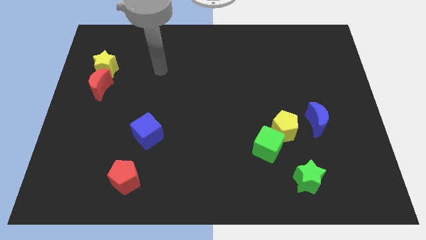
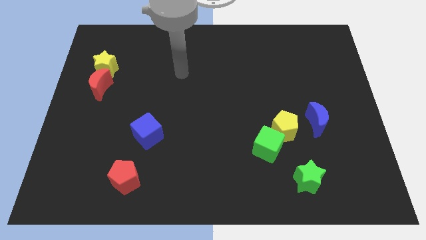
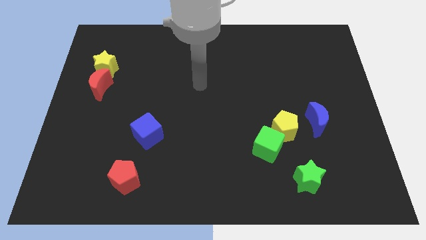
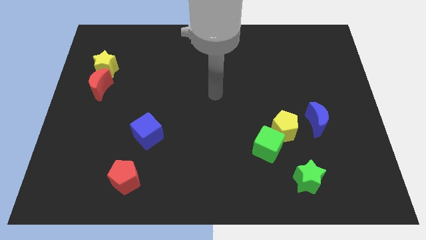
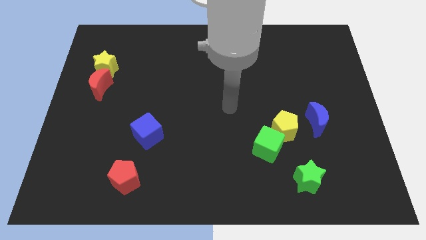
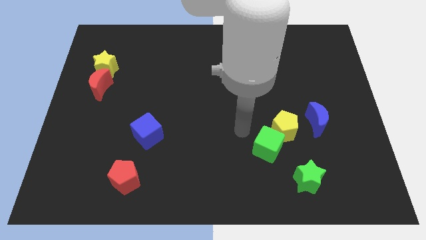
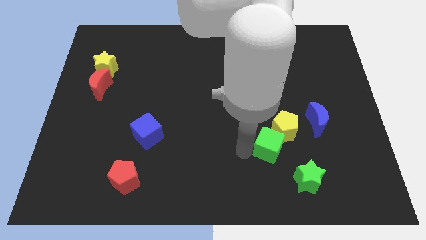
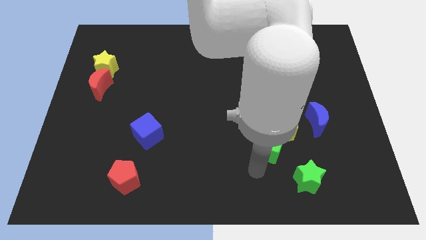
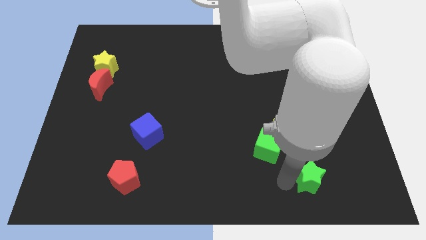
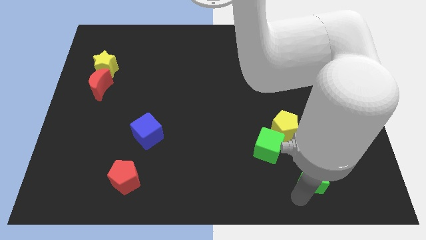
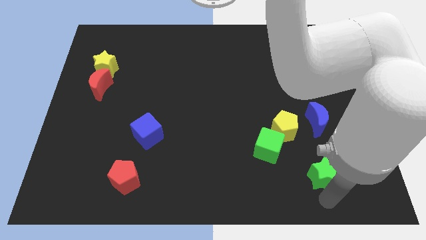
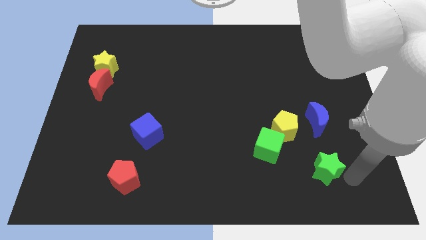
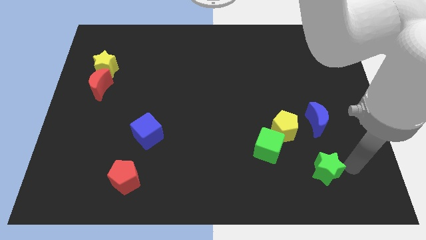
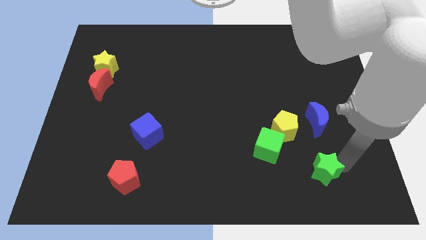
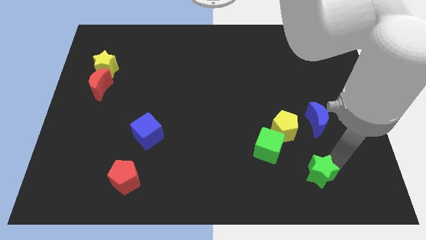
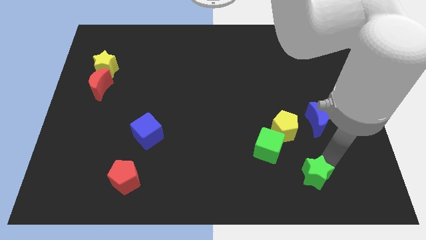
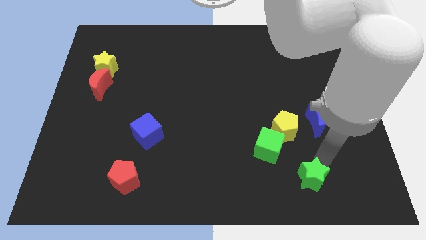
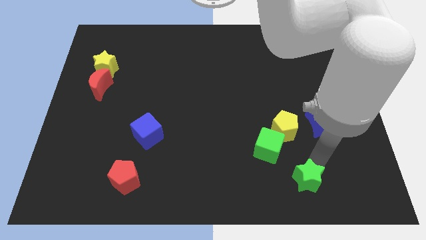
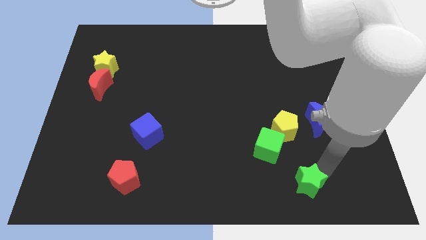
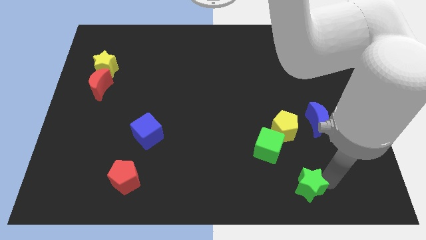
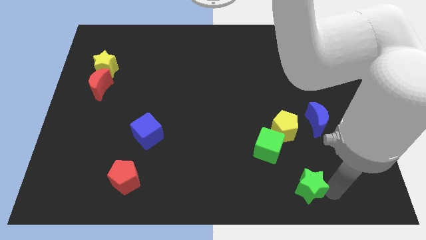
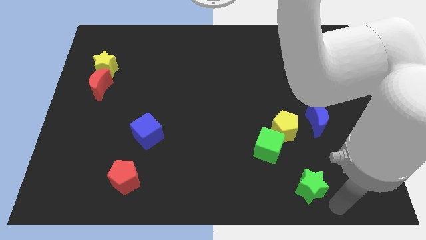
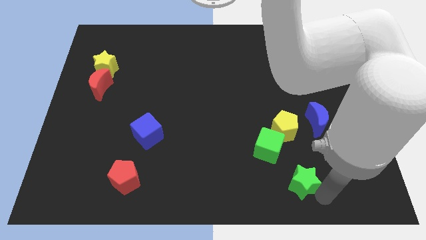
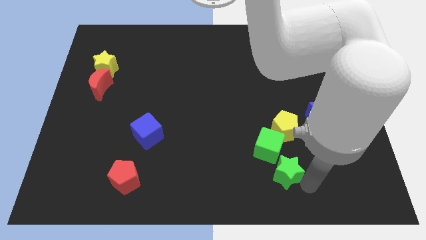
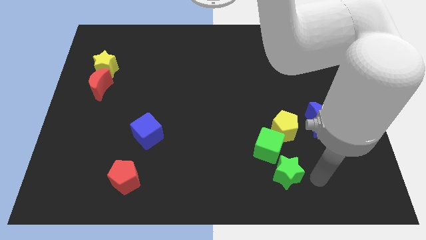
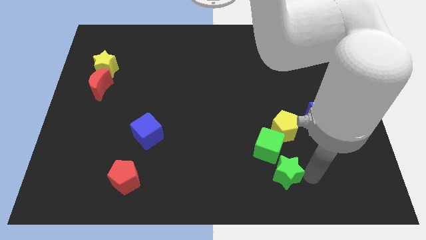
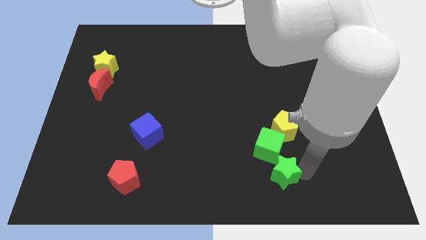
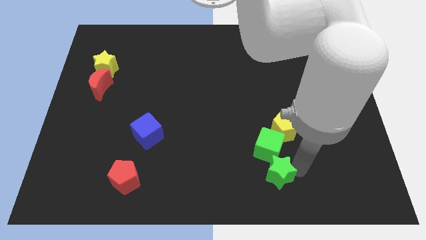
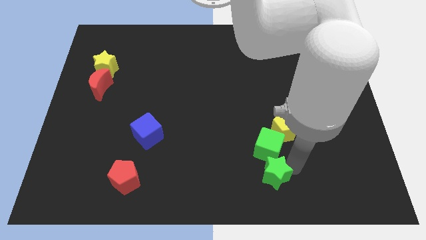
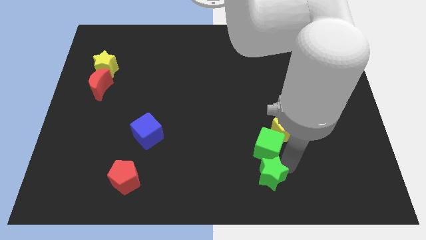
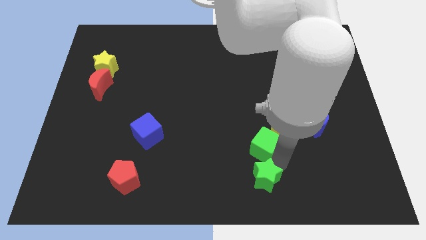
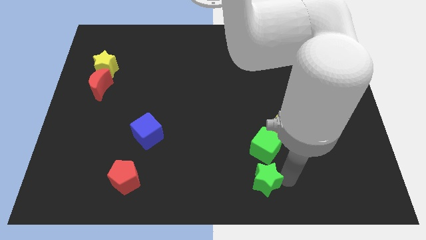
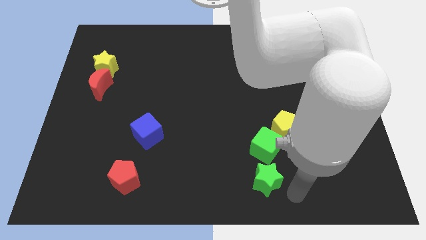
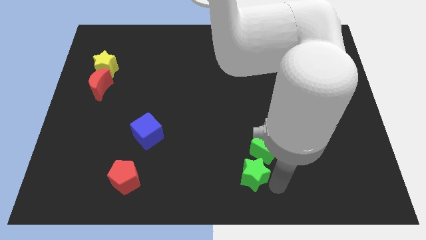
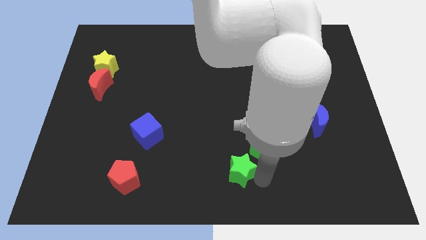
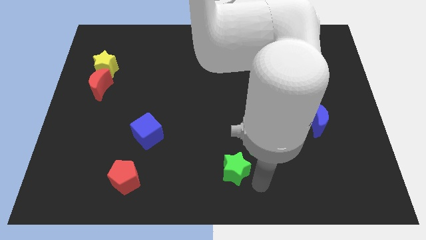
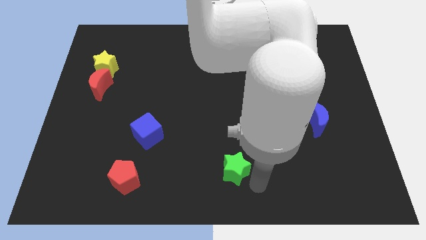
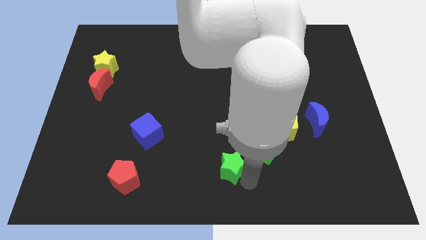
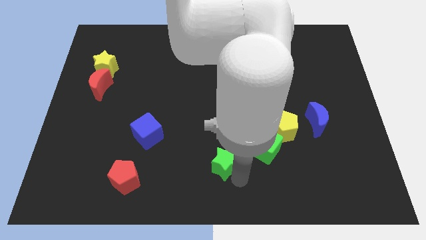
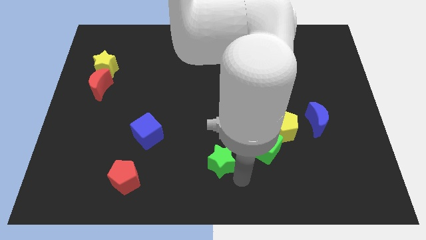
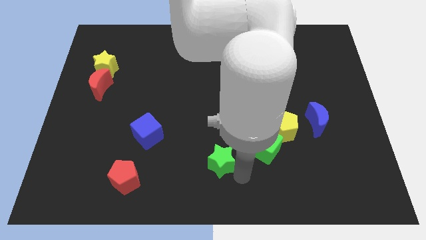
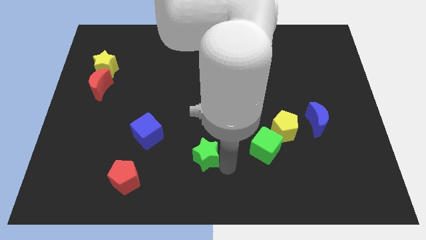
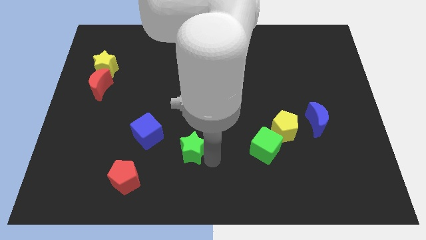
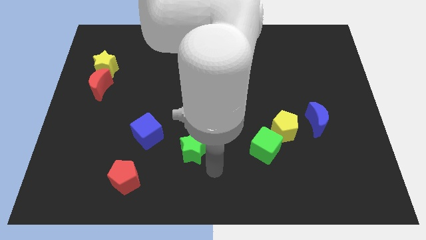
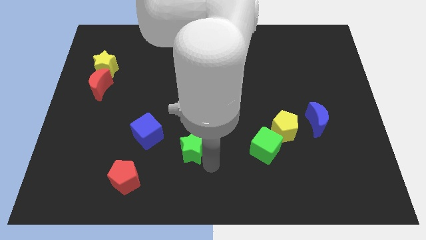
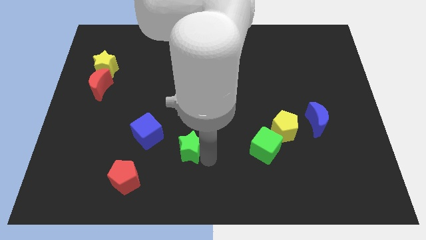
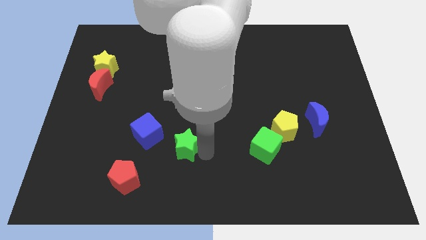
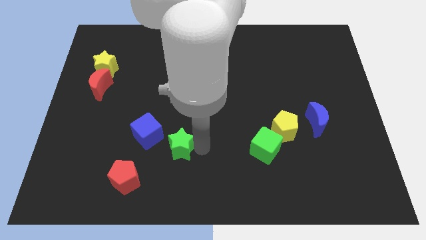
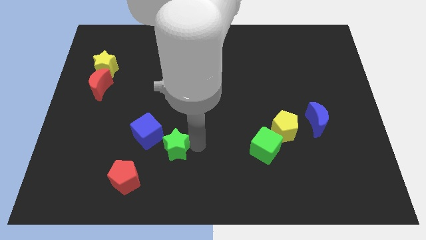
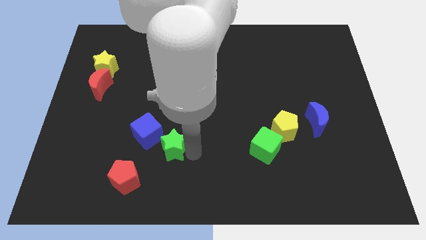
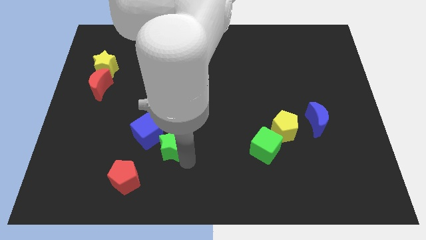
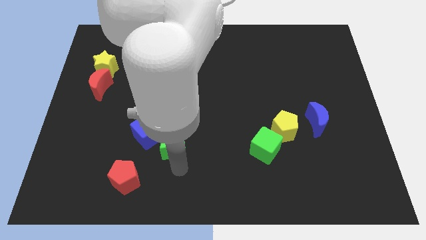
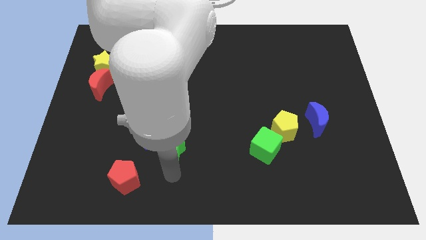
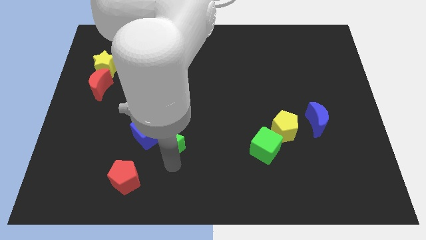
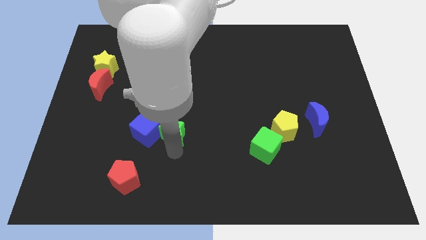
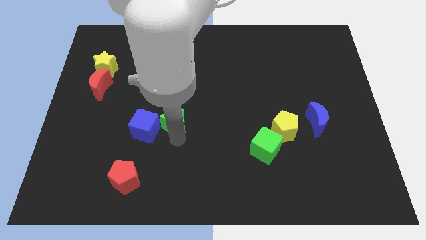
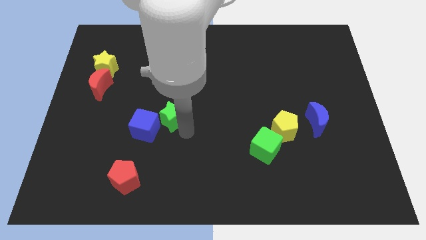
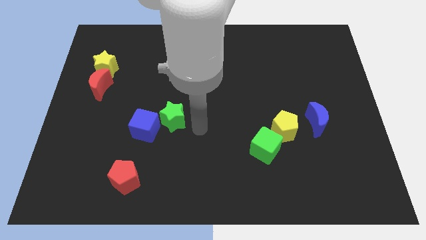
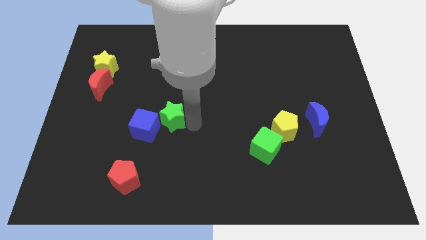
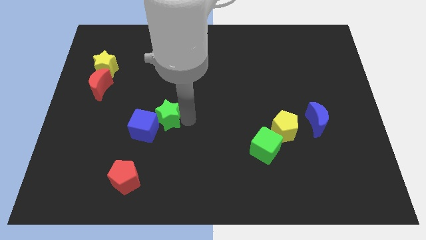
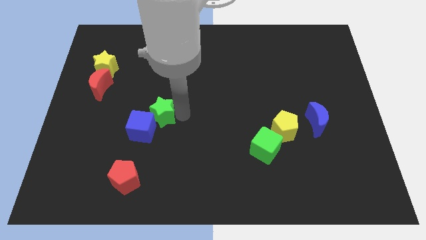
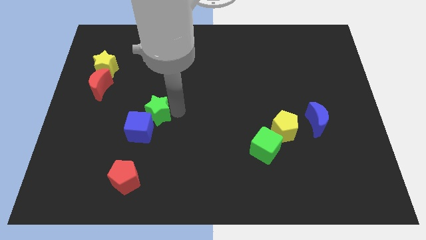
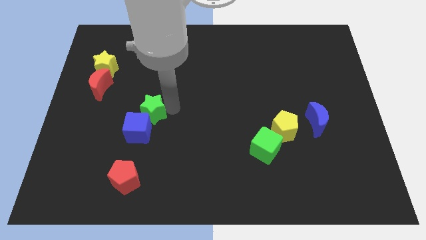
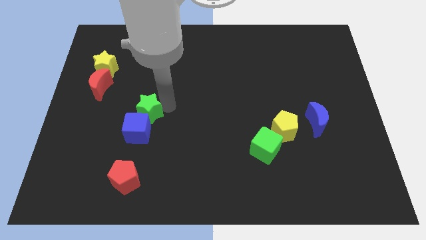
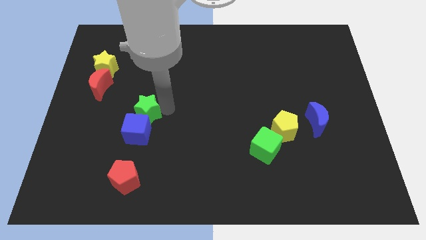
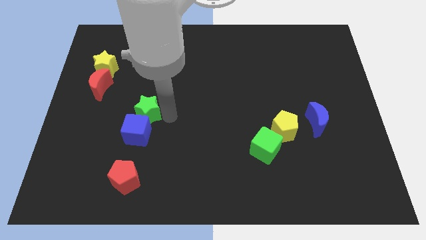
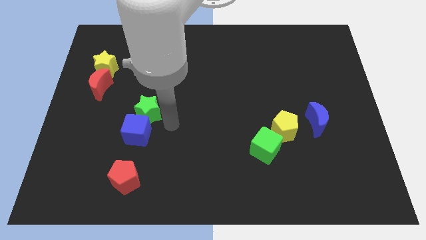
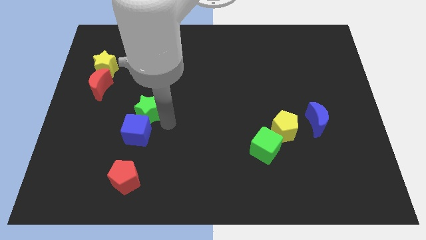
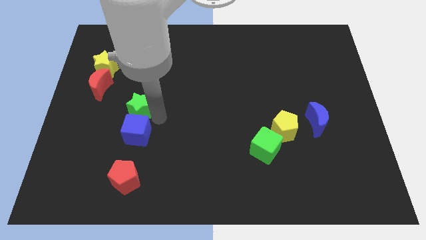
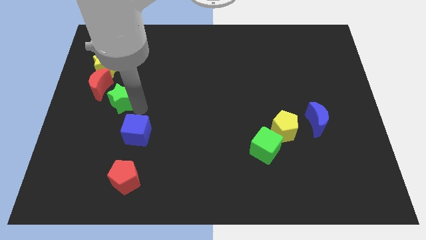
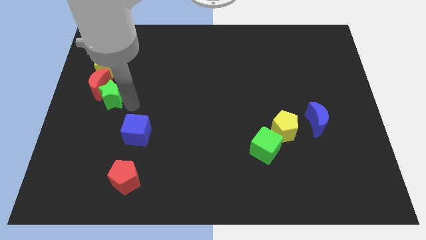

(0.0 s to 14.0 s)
push the green star close to the red moon

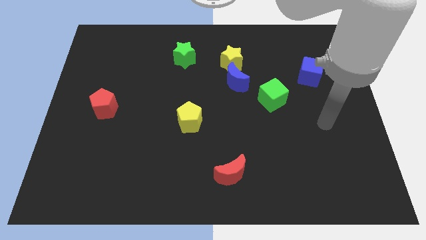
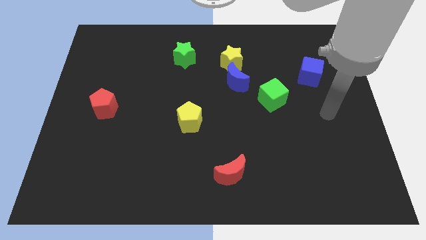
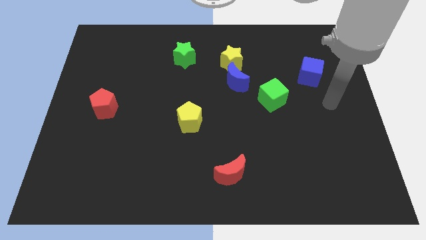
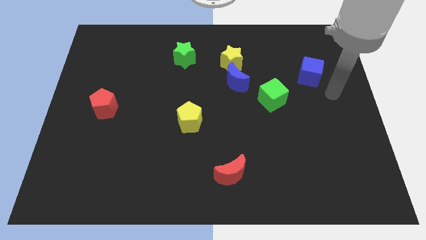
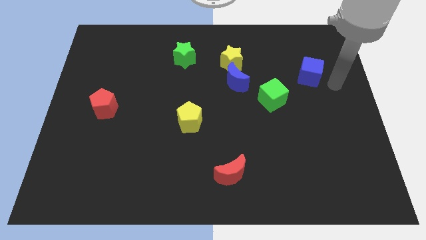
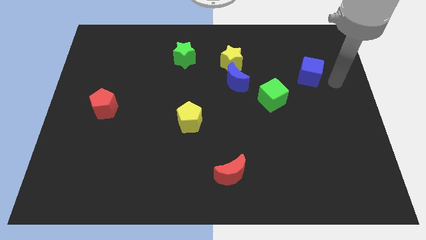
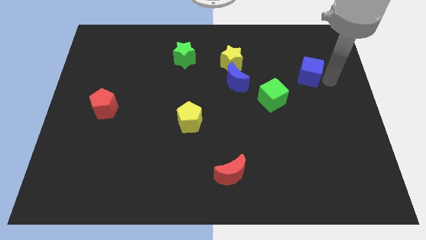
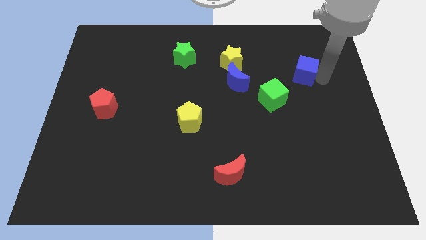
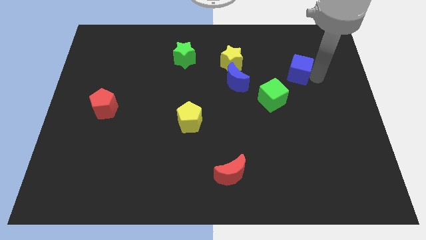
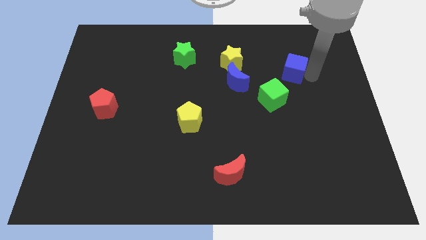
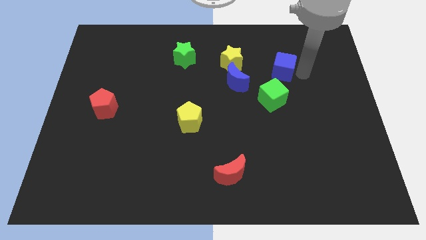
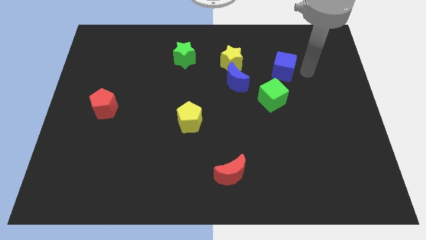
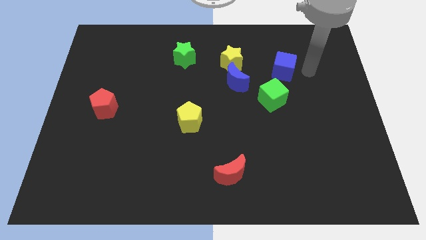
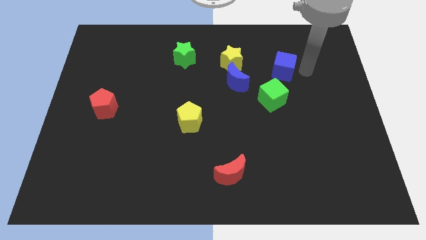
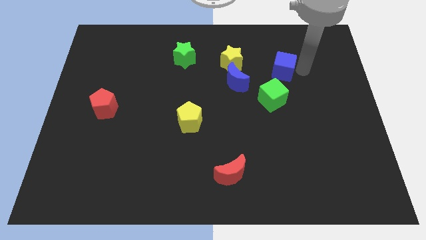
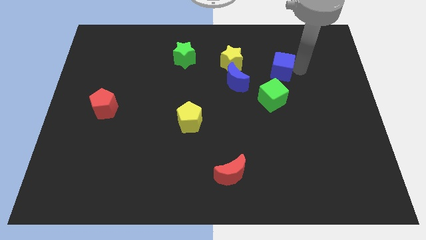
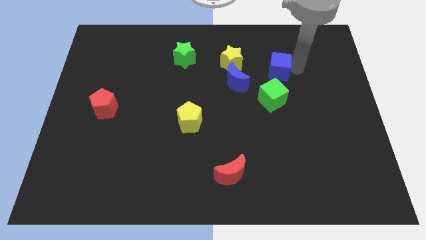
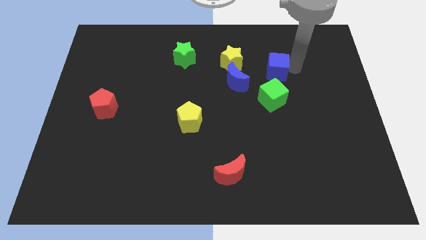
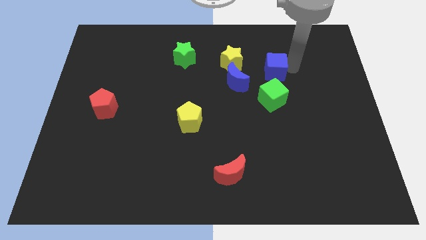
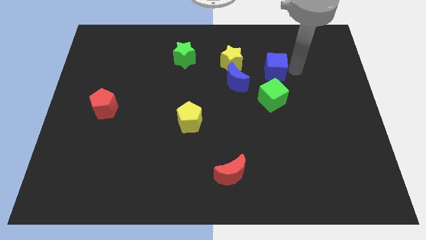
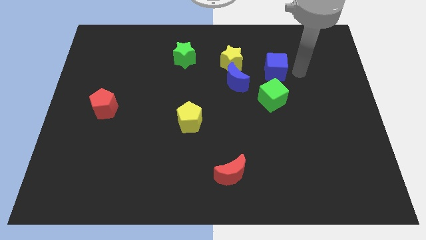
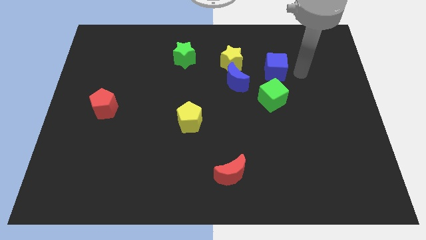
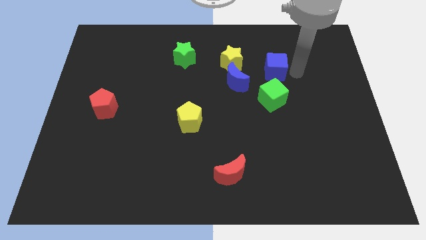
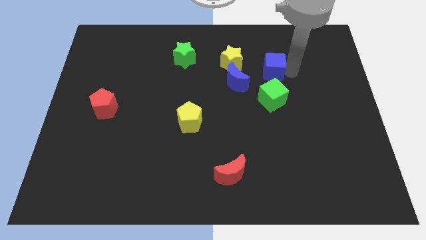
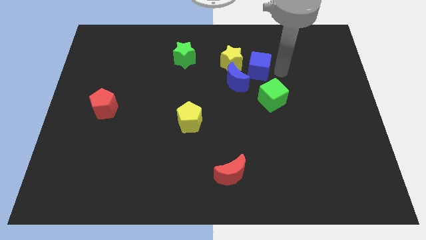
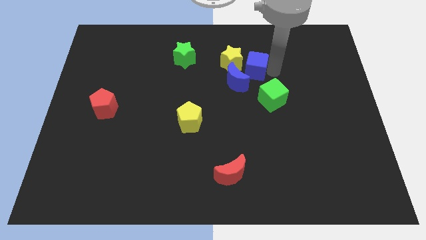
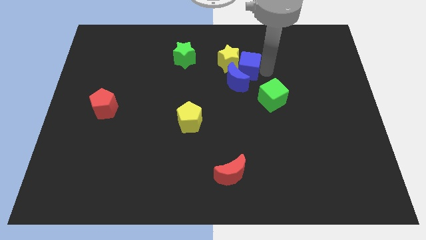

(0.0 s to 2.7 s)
put the blue cube next to the yellow star
